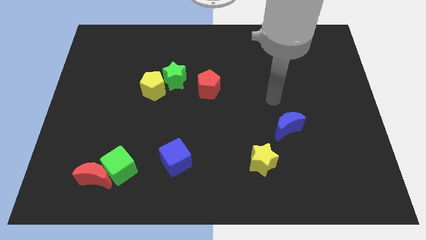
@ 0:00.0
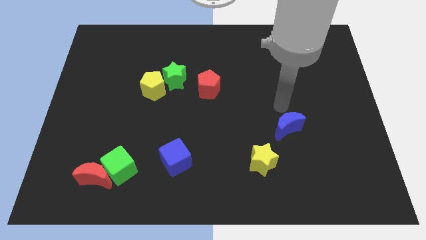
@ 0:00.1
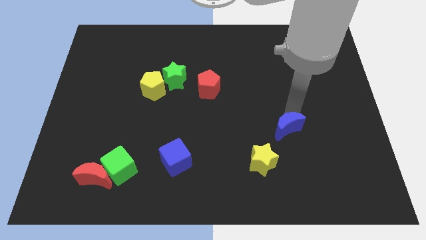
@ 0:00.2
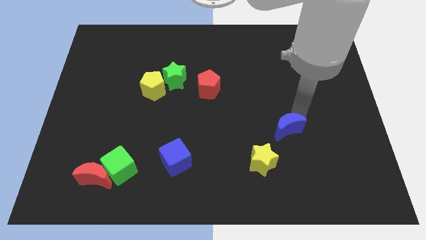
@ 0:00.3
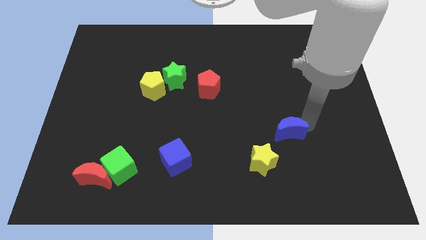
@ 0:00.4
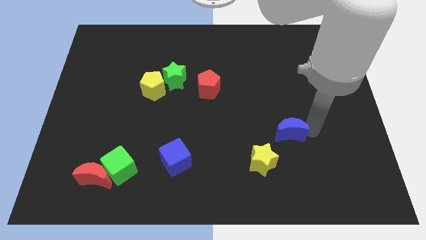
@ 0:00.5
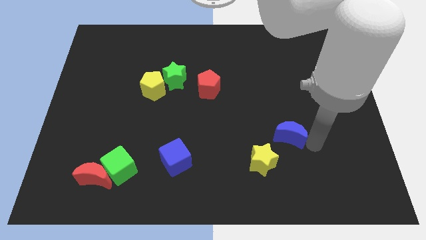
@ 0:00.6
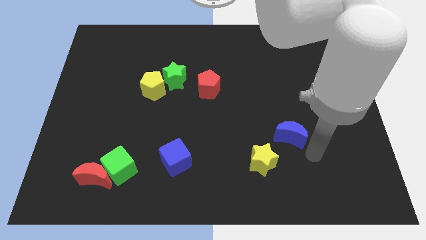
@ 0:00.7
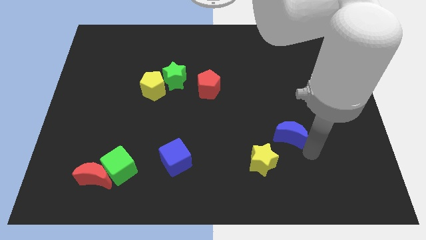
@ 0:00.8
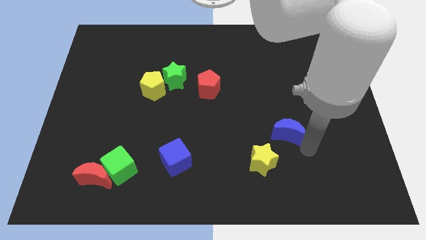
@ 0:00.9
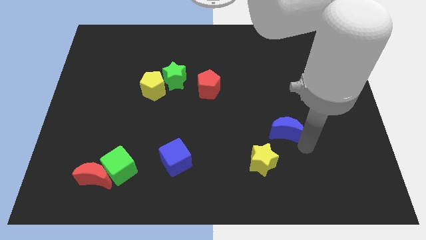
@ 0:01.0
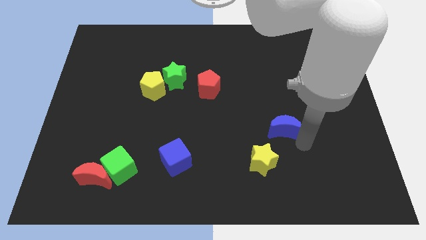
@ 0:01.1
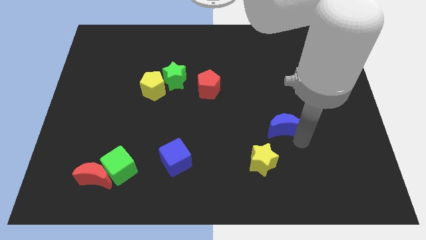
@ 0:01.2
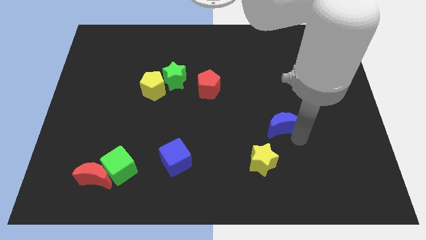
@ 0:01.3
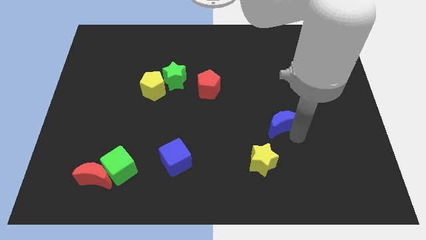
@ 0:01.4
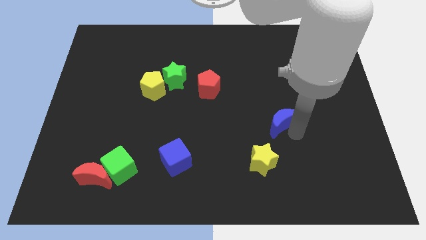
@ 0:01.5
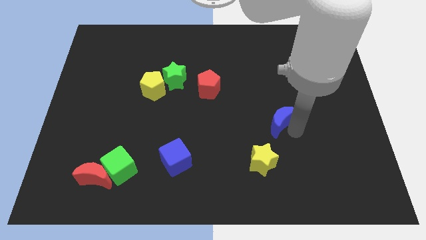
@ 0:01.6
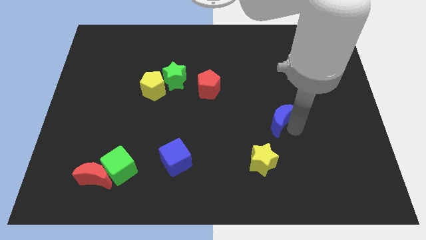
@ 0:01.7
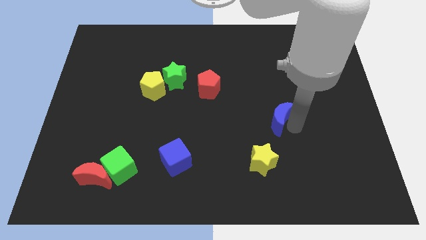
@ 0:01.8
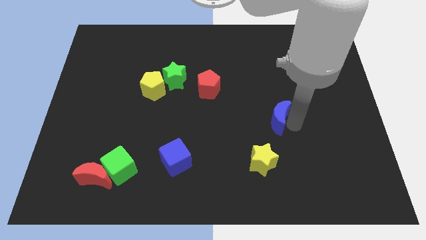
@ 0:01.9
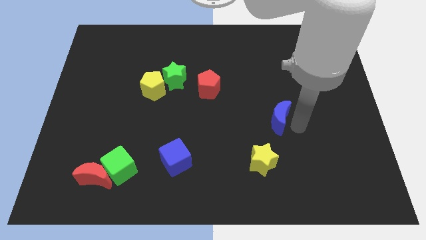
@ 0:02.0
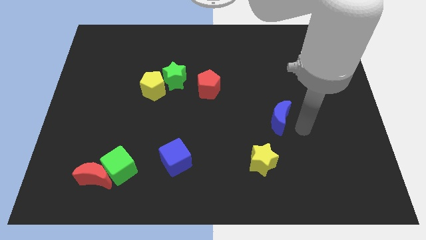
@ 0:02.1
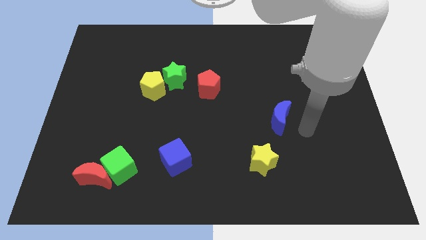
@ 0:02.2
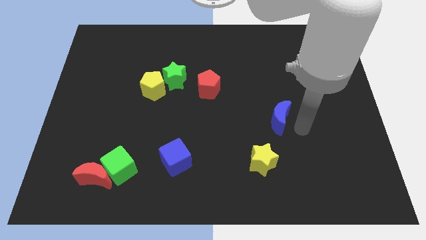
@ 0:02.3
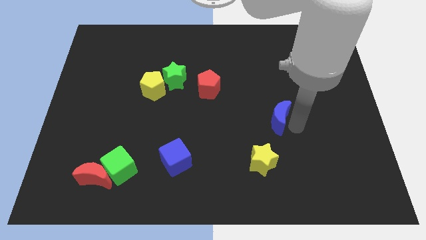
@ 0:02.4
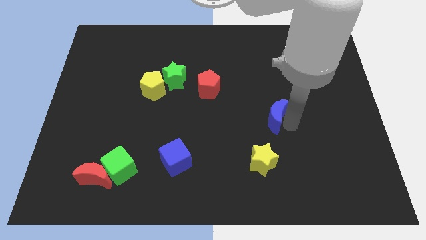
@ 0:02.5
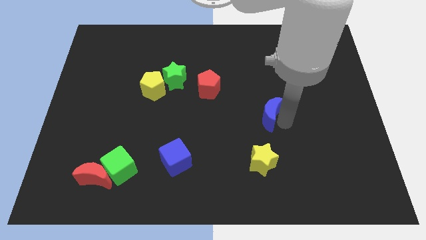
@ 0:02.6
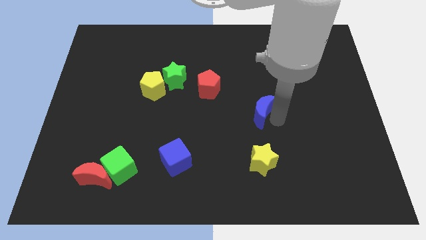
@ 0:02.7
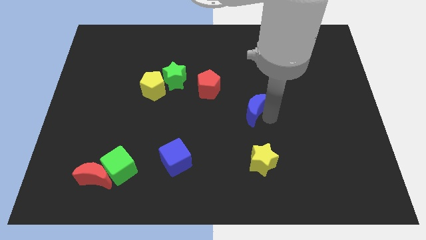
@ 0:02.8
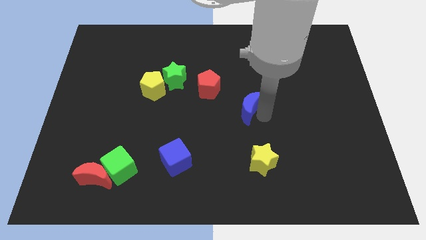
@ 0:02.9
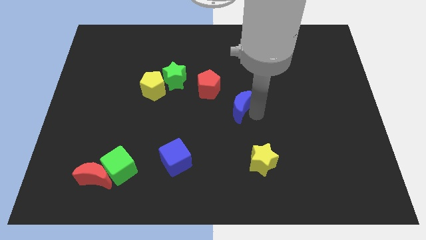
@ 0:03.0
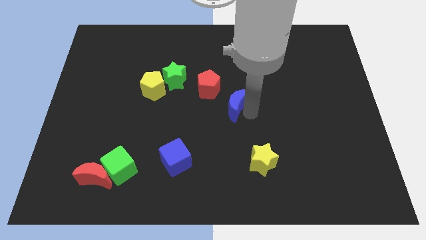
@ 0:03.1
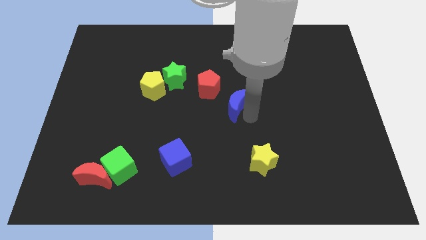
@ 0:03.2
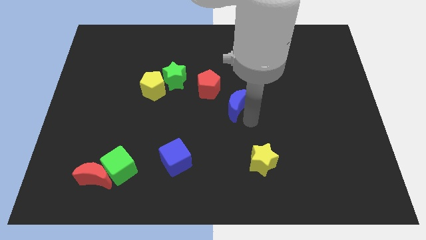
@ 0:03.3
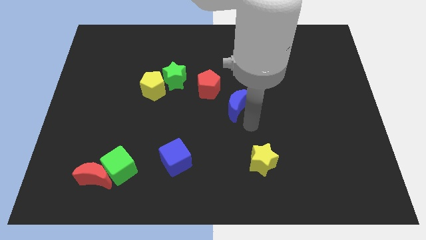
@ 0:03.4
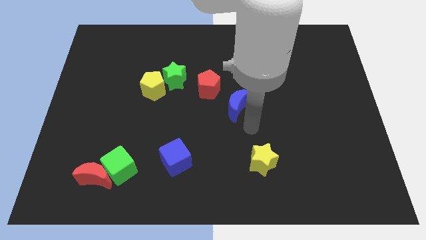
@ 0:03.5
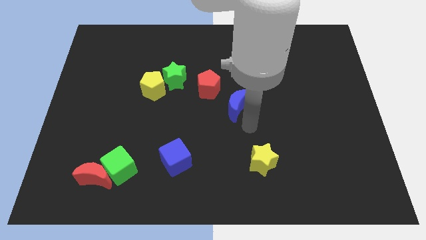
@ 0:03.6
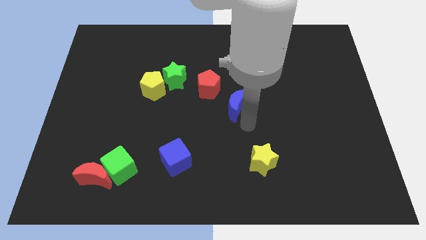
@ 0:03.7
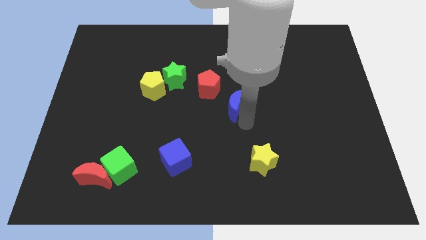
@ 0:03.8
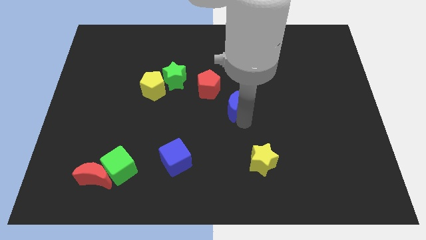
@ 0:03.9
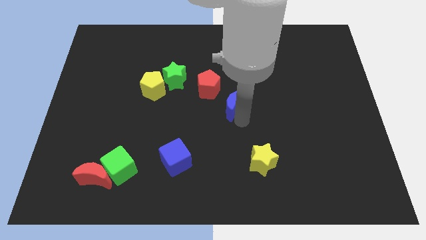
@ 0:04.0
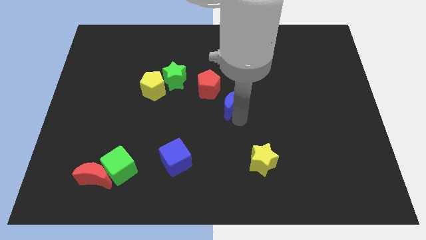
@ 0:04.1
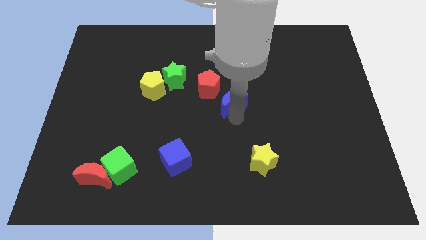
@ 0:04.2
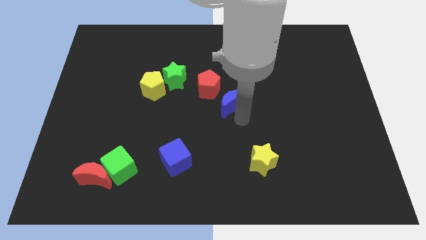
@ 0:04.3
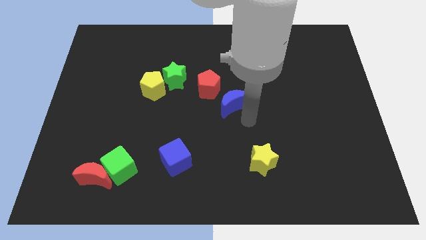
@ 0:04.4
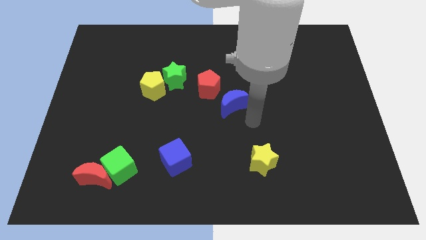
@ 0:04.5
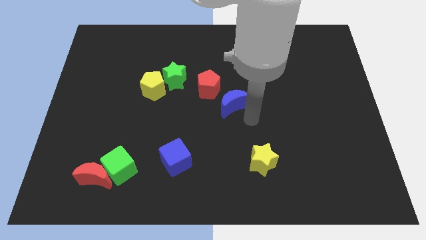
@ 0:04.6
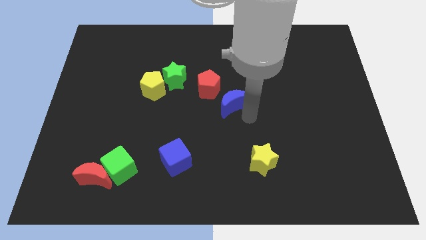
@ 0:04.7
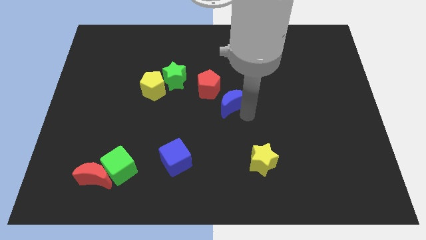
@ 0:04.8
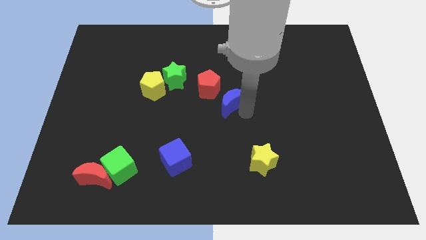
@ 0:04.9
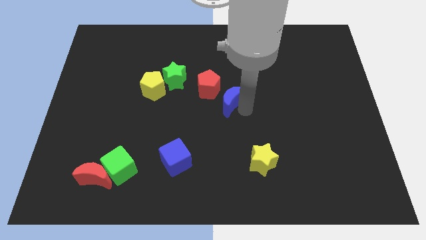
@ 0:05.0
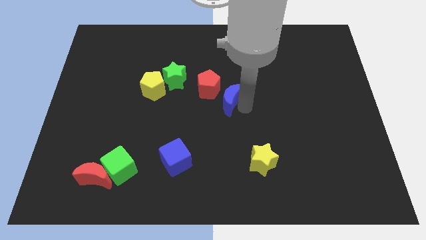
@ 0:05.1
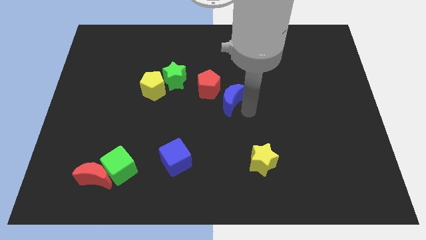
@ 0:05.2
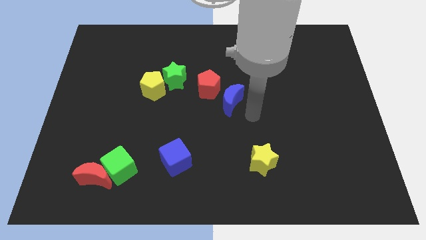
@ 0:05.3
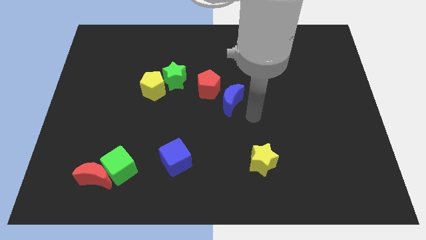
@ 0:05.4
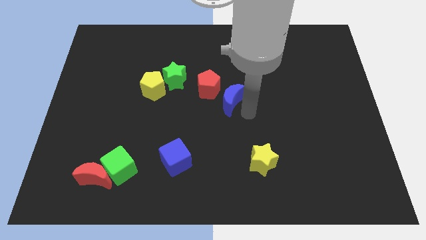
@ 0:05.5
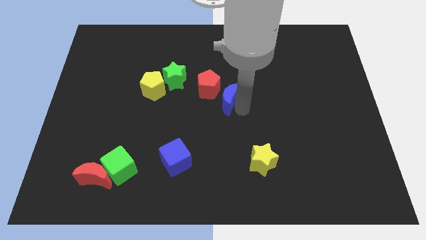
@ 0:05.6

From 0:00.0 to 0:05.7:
move the blue moon next to the red pentagon

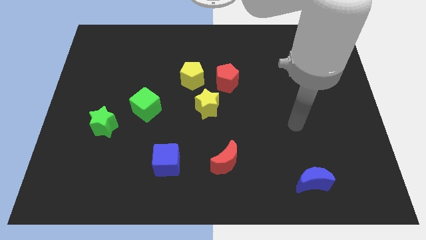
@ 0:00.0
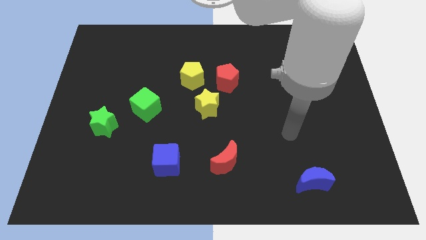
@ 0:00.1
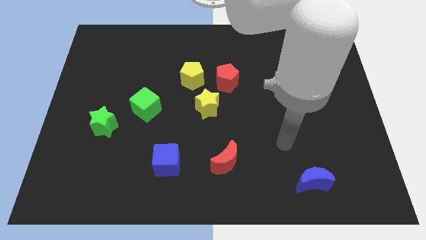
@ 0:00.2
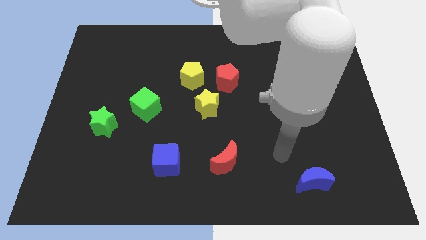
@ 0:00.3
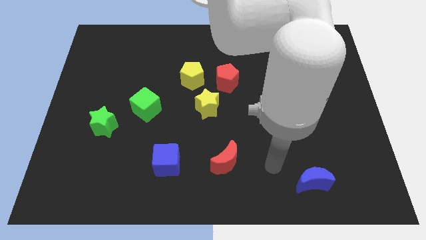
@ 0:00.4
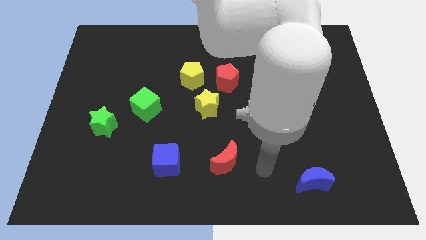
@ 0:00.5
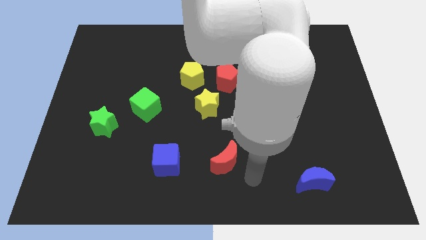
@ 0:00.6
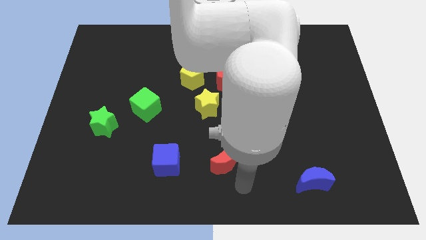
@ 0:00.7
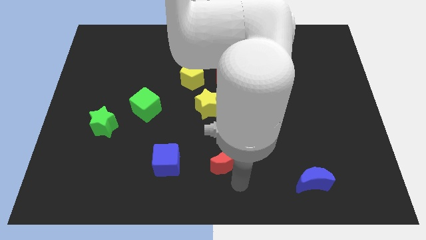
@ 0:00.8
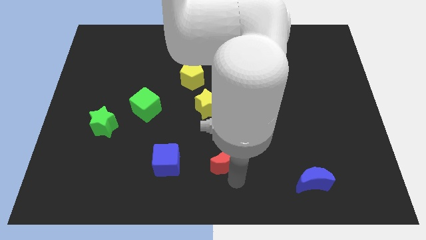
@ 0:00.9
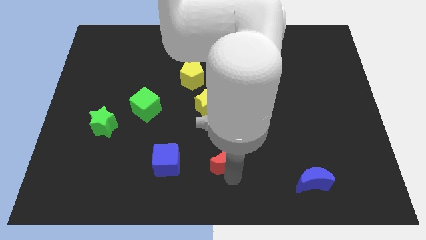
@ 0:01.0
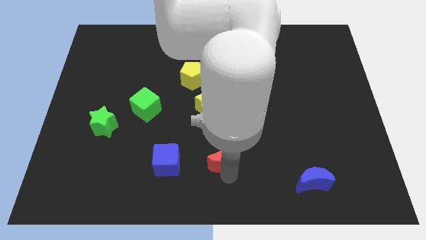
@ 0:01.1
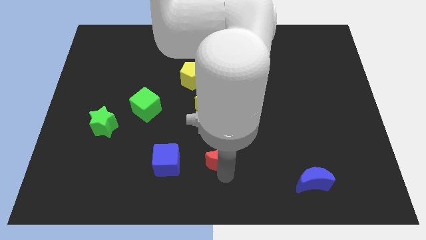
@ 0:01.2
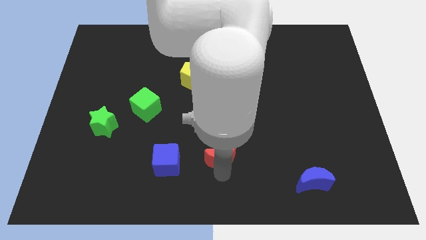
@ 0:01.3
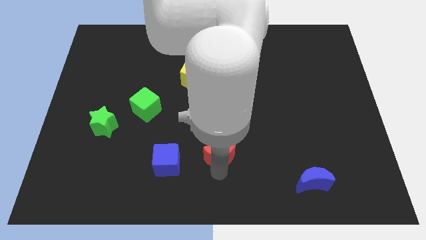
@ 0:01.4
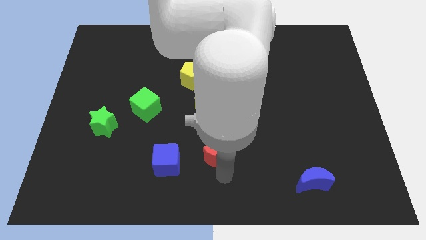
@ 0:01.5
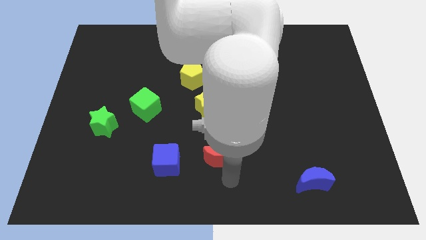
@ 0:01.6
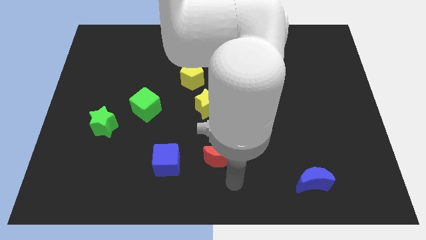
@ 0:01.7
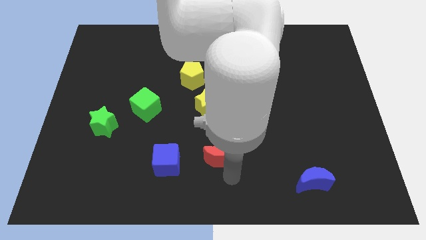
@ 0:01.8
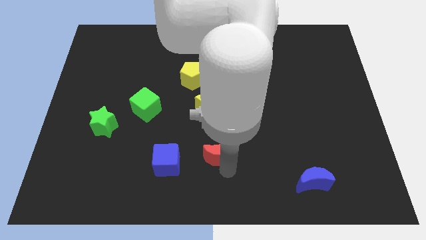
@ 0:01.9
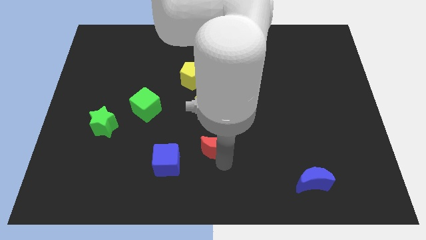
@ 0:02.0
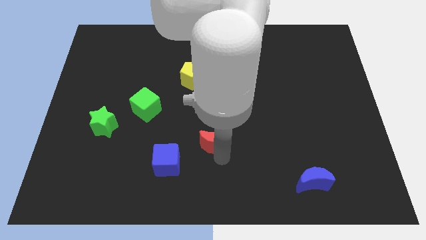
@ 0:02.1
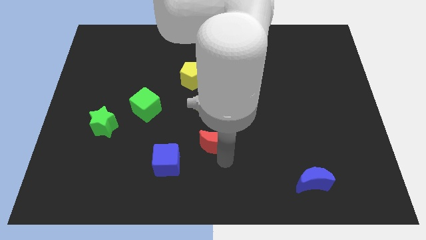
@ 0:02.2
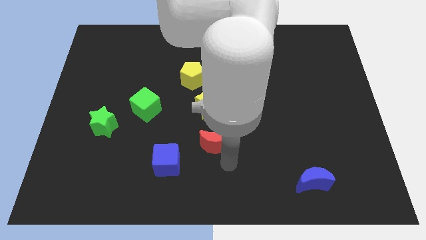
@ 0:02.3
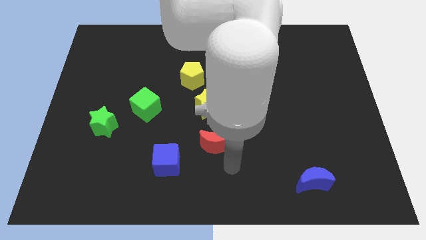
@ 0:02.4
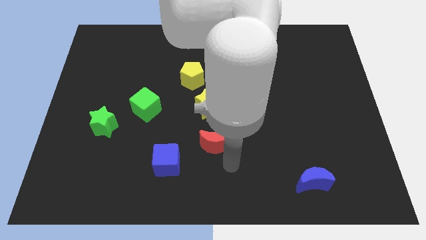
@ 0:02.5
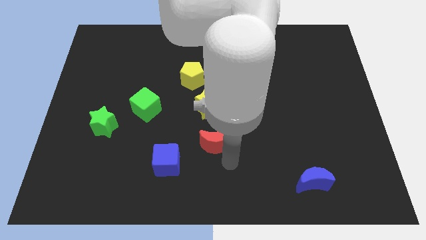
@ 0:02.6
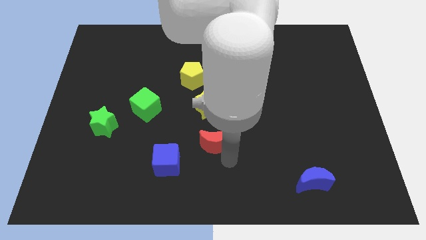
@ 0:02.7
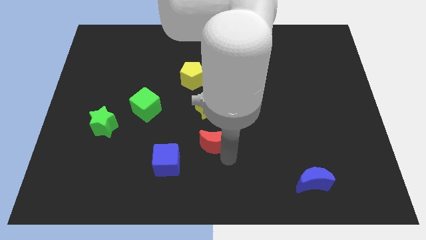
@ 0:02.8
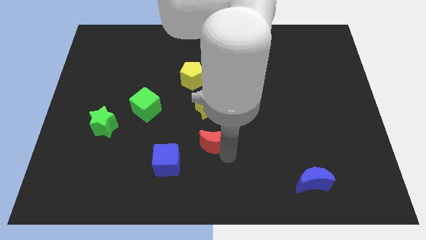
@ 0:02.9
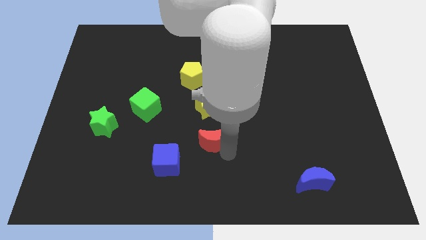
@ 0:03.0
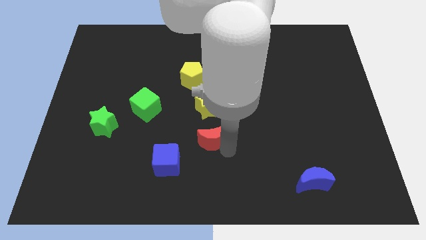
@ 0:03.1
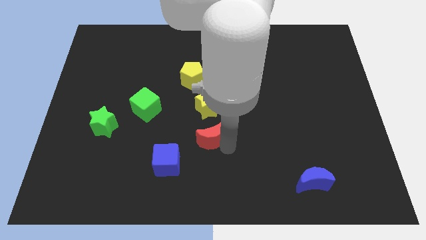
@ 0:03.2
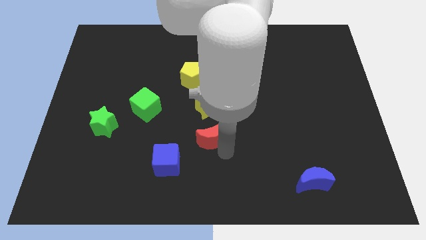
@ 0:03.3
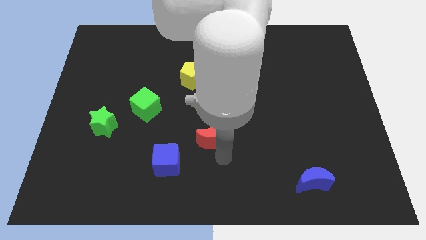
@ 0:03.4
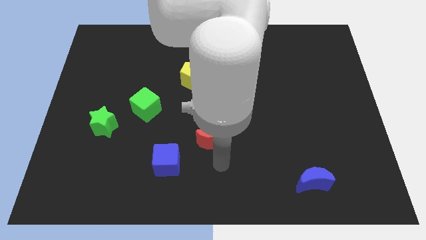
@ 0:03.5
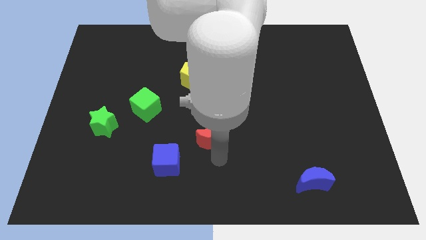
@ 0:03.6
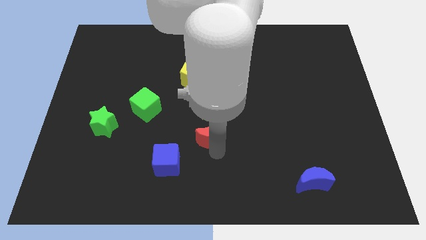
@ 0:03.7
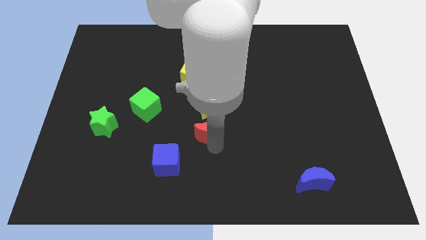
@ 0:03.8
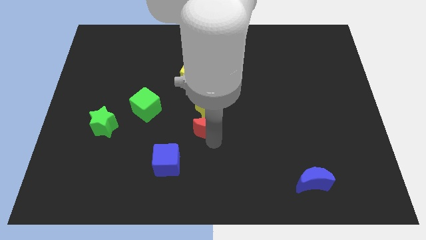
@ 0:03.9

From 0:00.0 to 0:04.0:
move the red moon towards the yellow star
